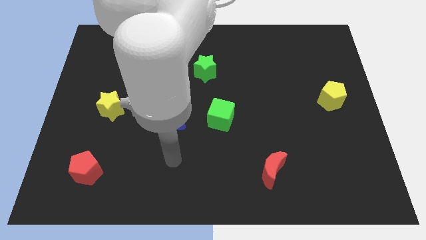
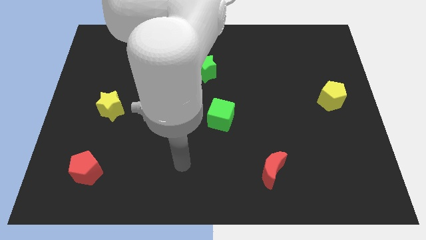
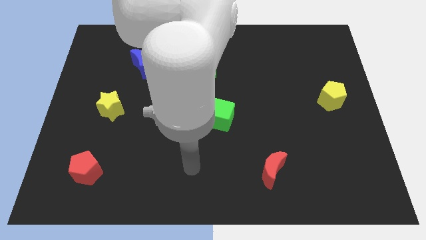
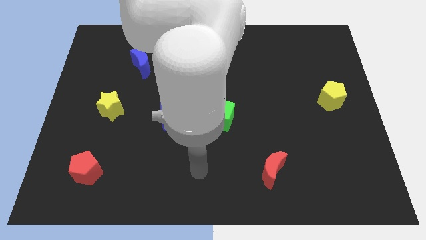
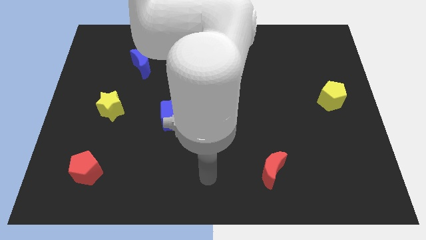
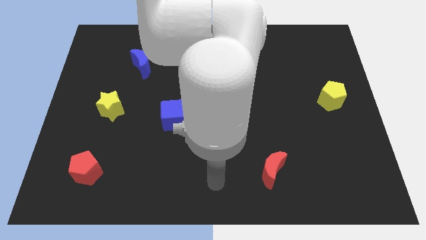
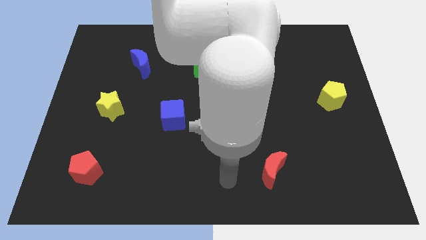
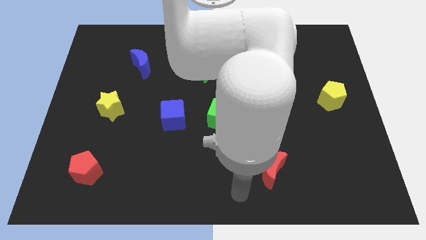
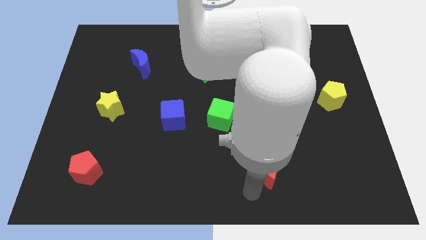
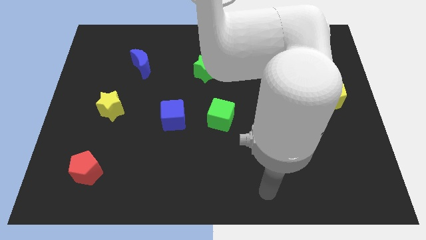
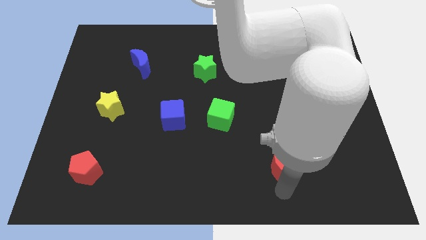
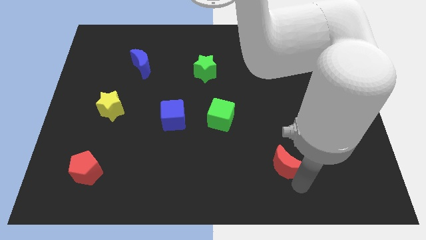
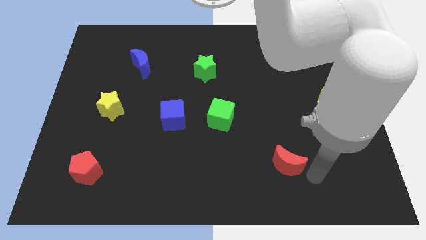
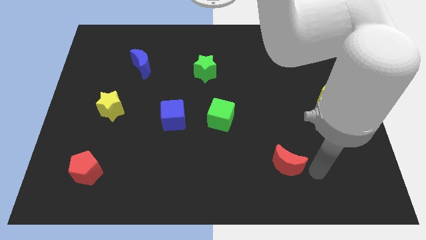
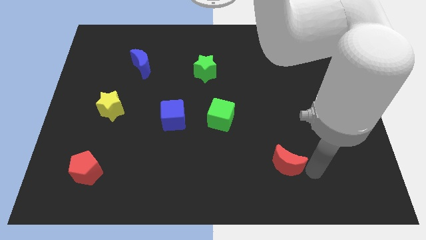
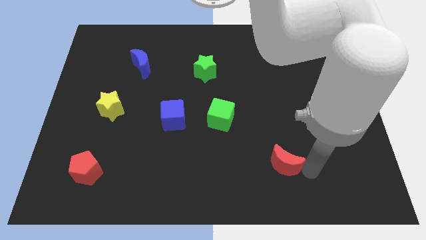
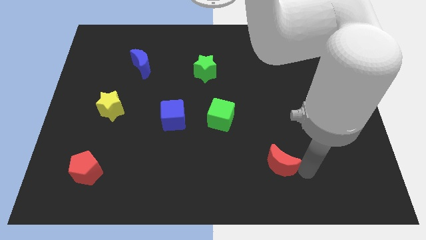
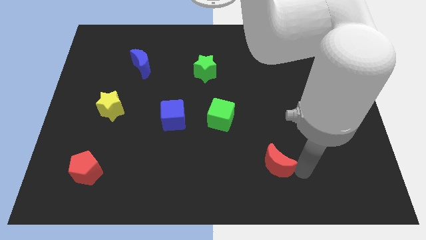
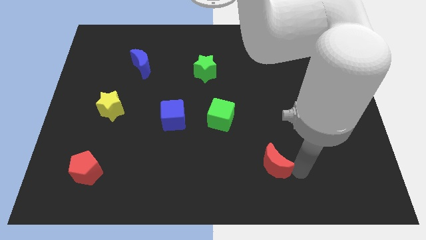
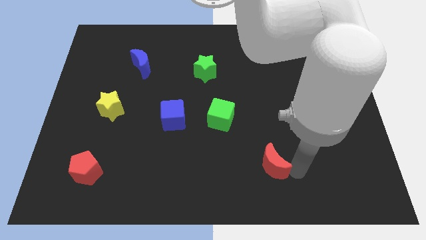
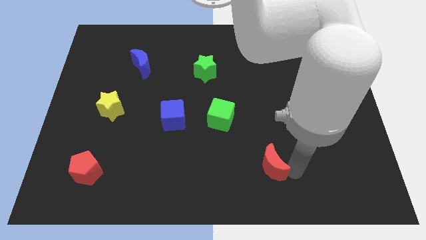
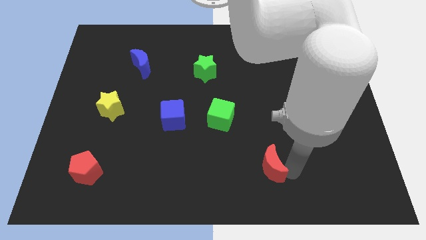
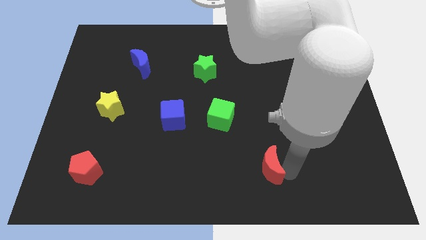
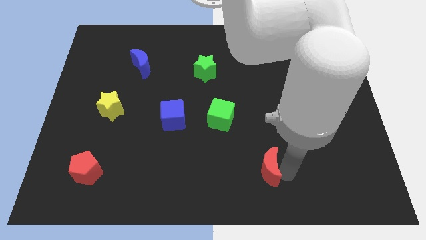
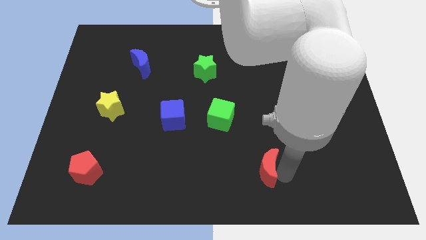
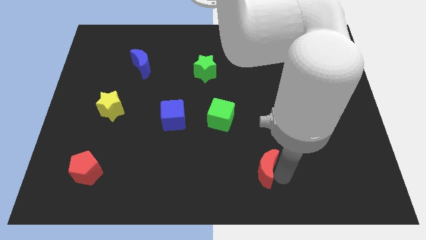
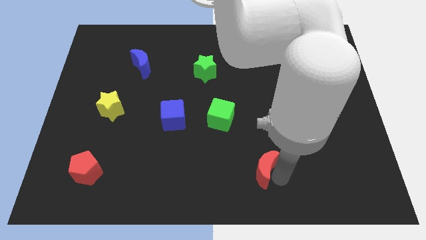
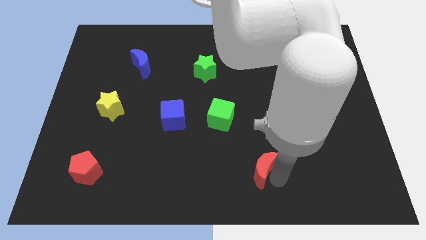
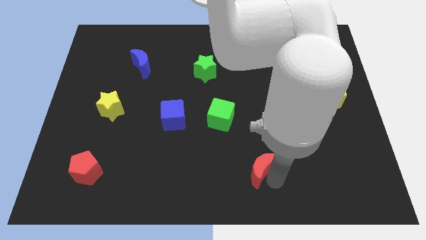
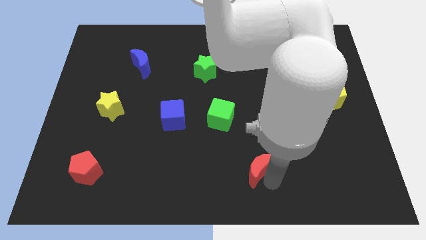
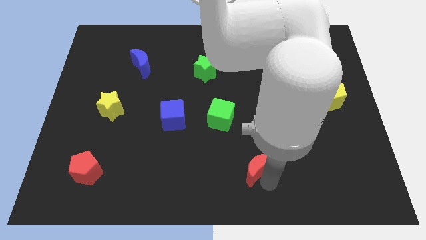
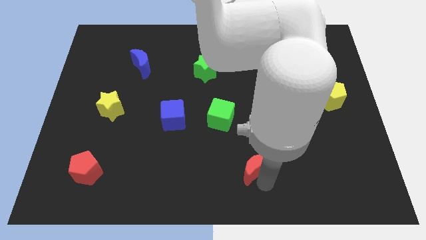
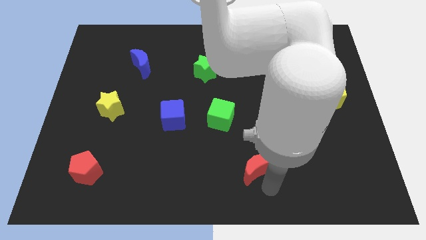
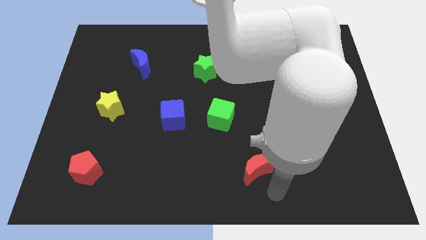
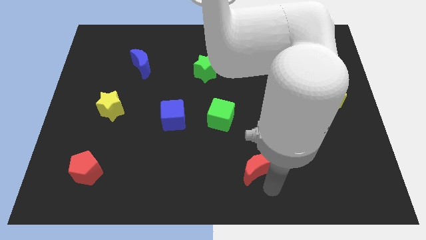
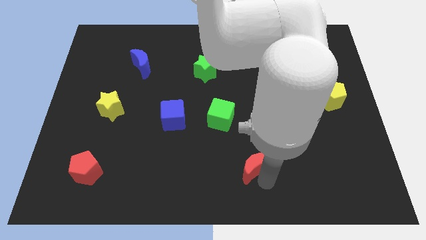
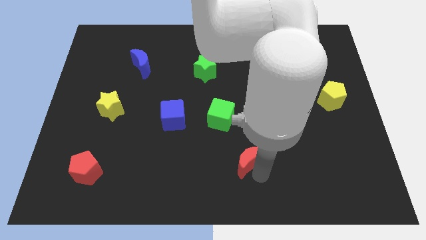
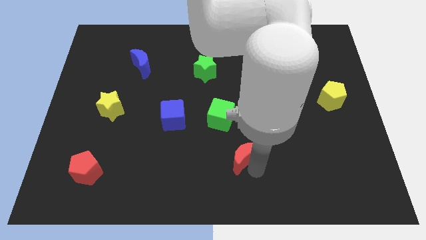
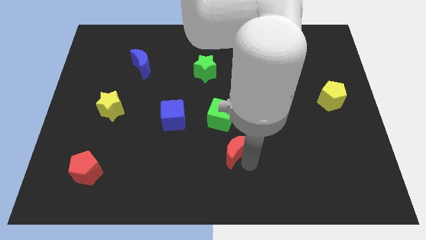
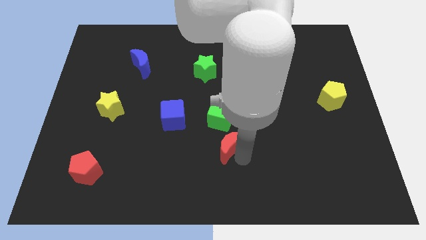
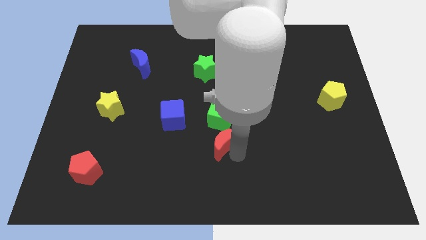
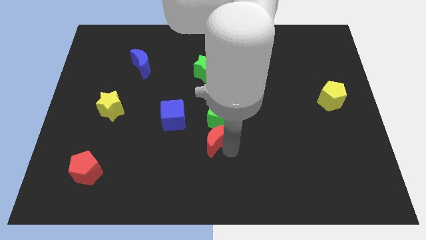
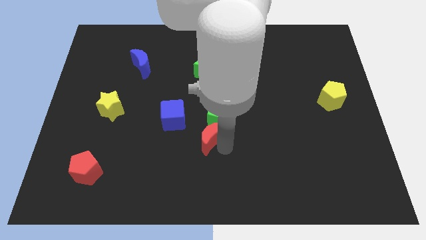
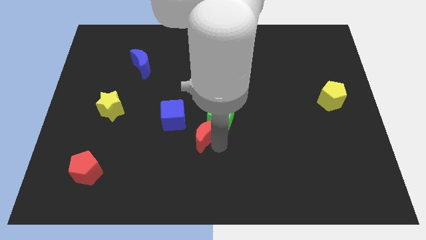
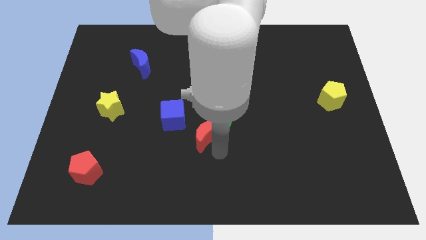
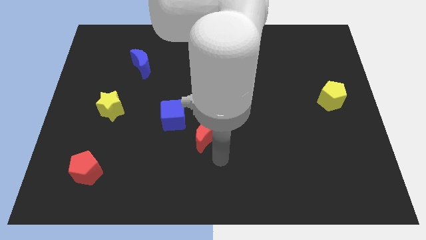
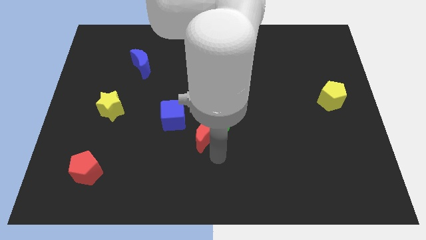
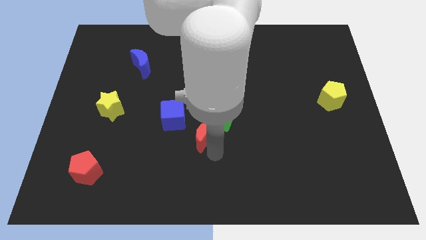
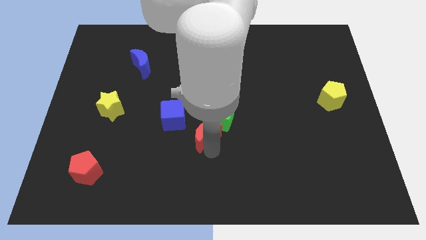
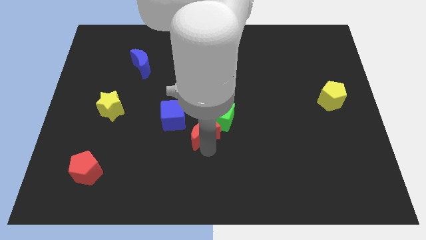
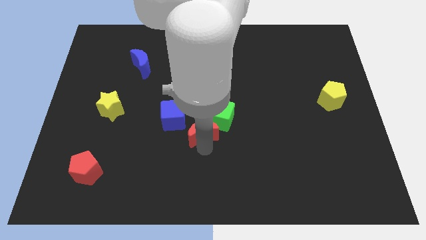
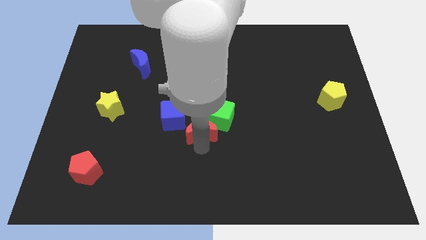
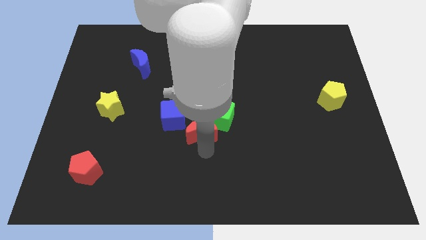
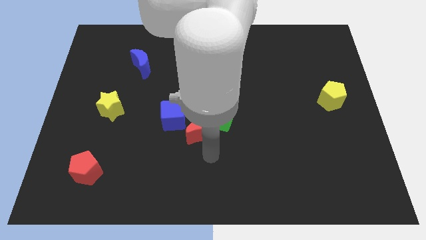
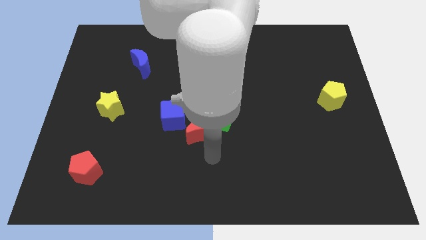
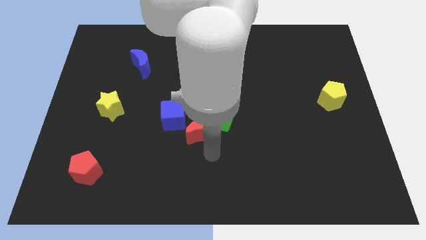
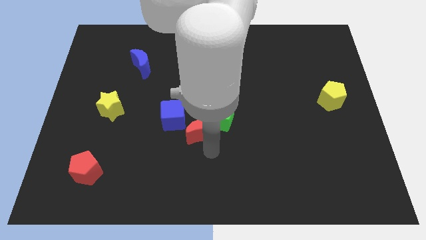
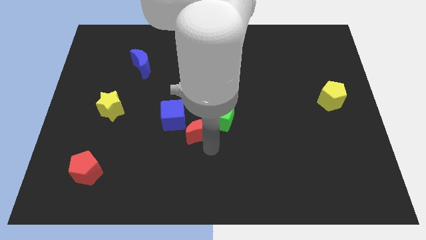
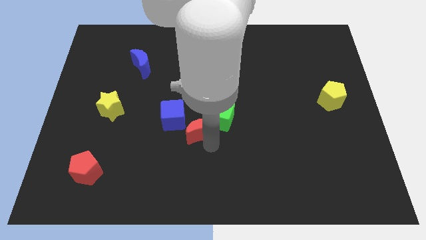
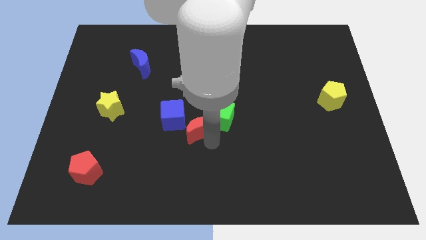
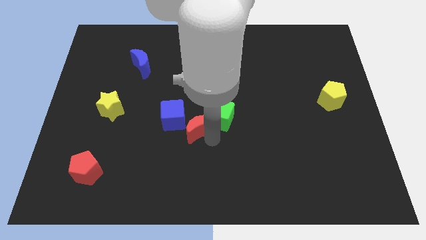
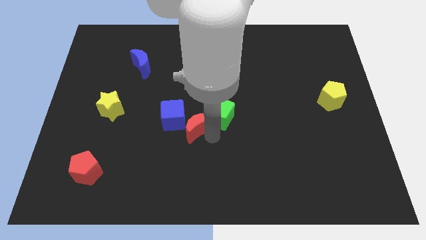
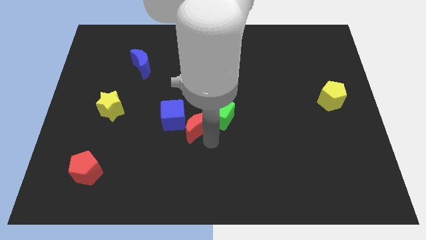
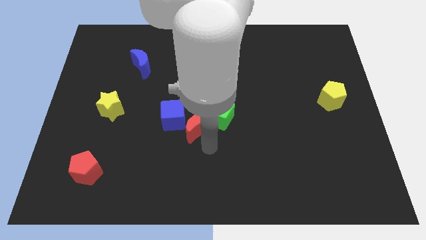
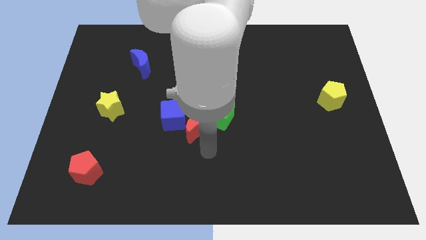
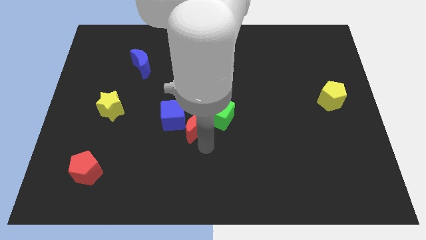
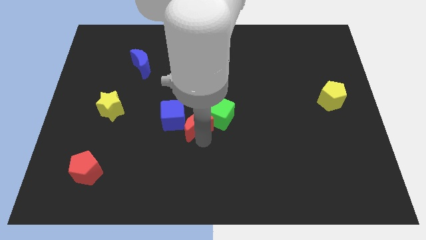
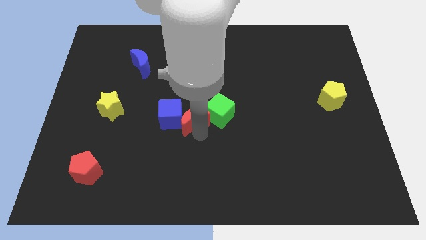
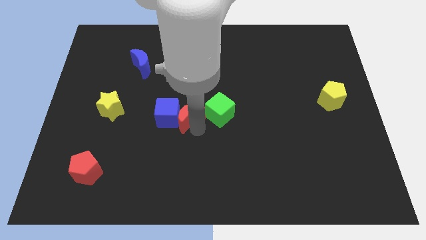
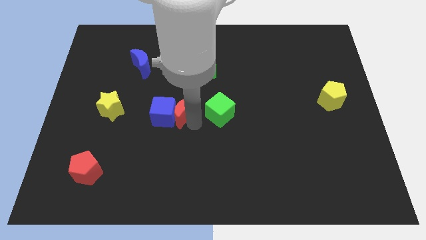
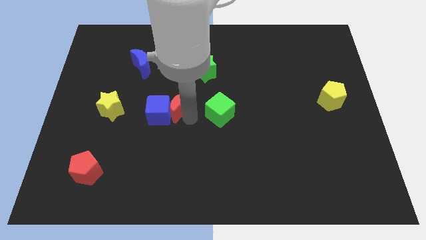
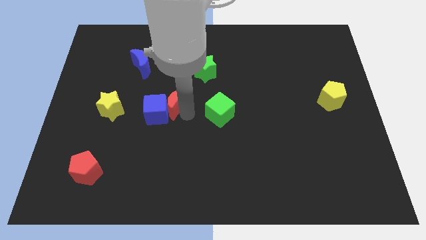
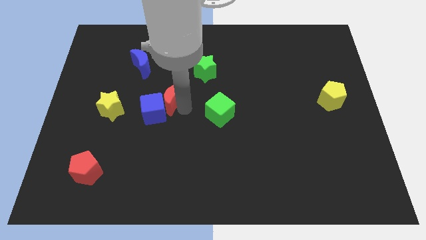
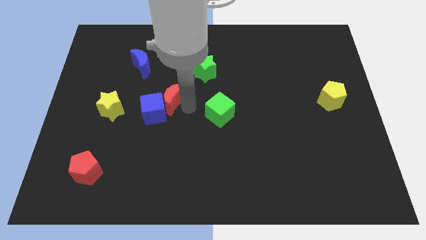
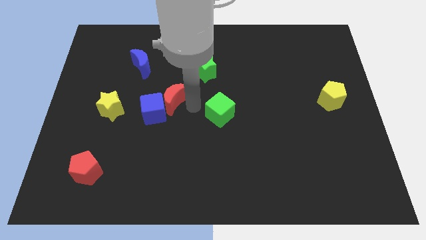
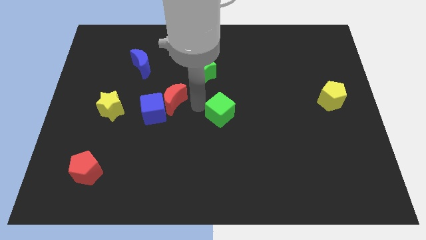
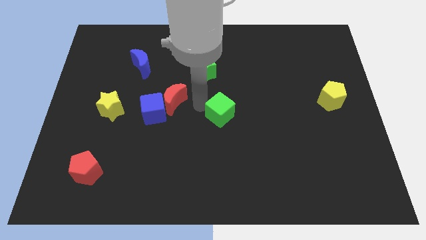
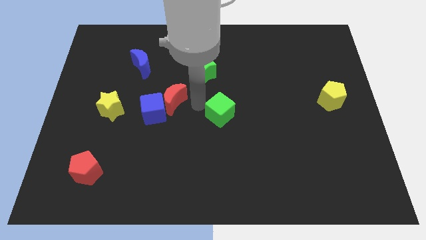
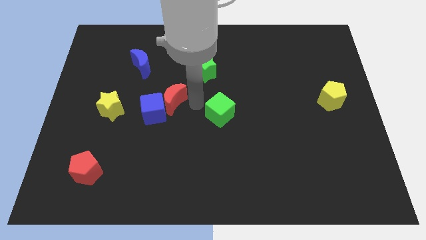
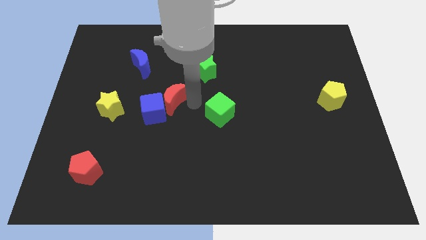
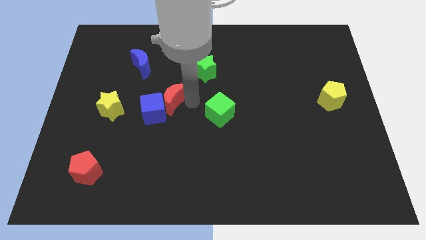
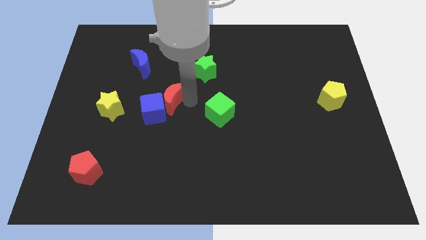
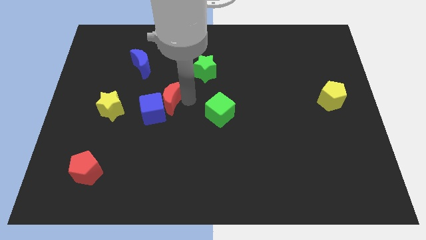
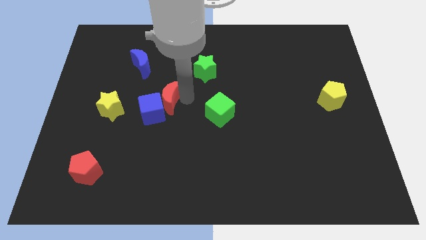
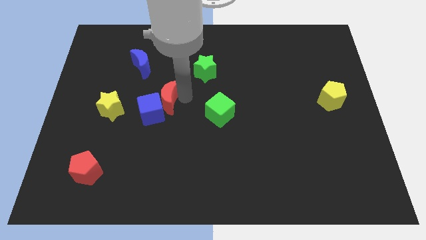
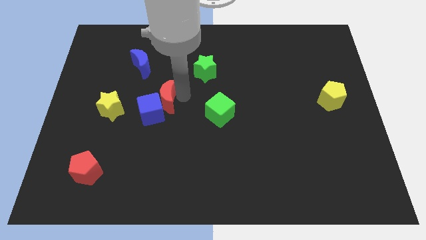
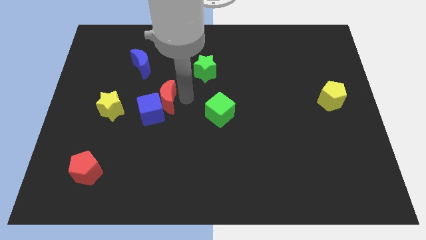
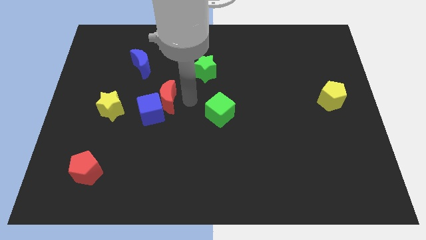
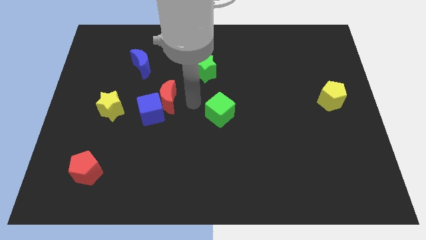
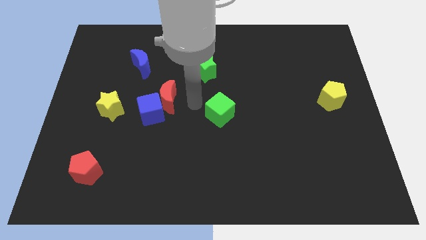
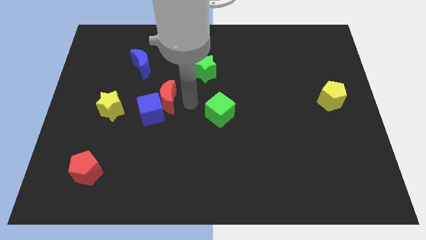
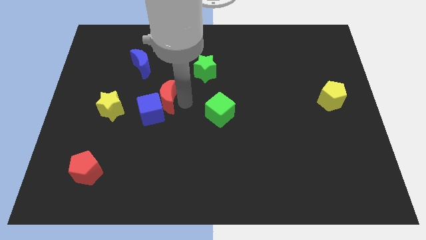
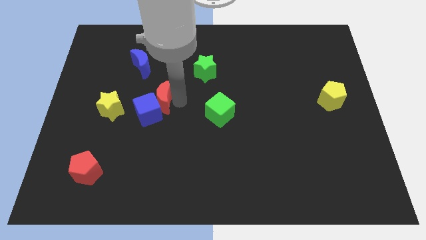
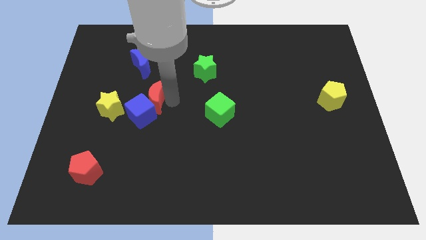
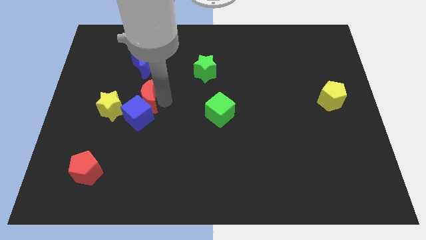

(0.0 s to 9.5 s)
move the red moon to the top right side of the yellow star
